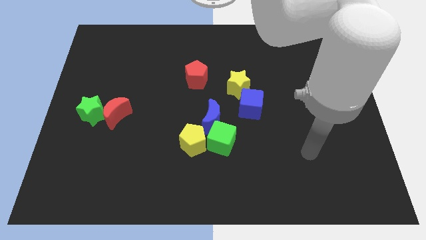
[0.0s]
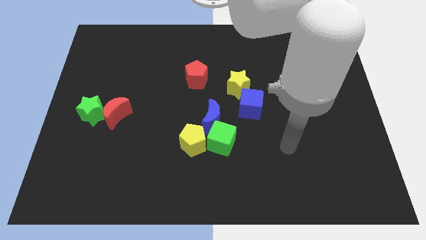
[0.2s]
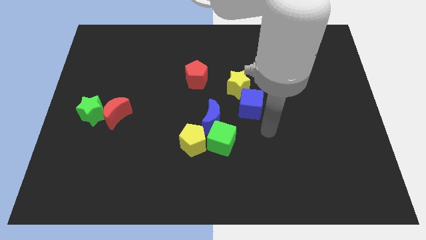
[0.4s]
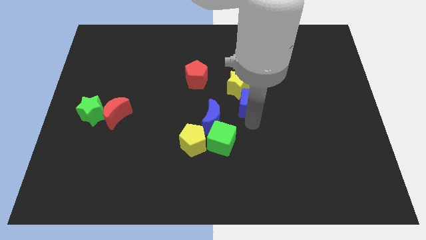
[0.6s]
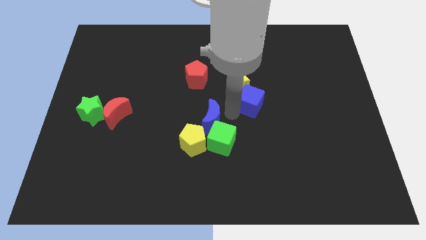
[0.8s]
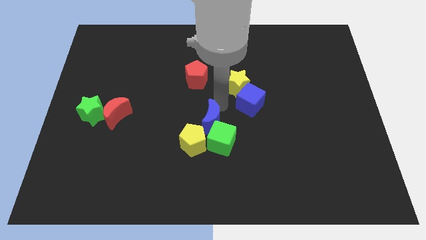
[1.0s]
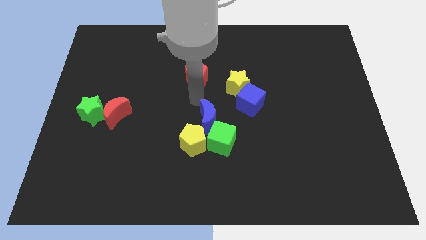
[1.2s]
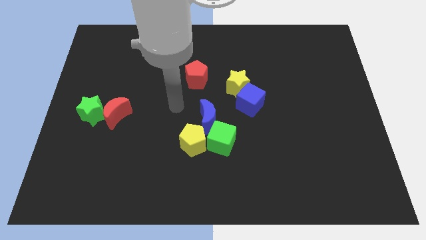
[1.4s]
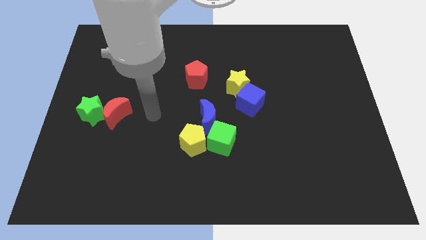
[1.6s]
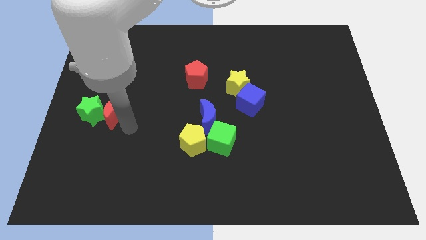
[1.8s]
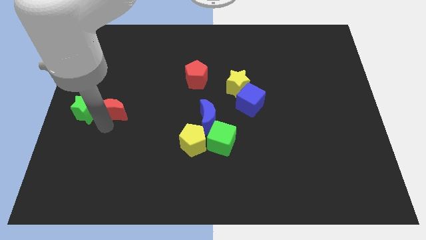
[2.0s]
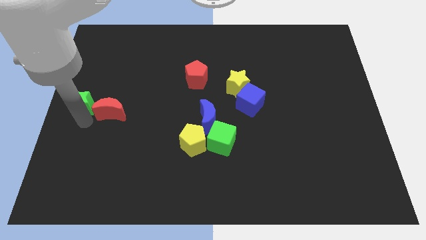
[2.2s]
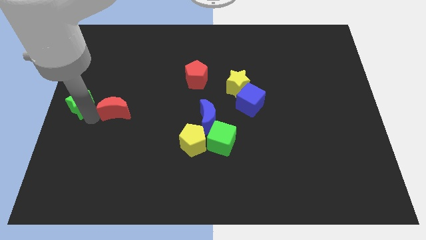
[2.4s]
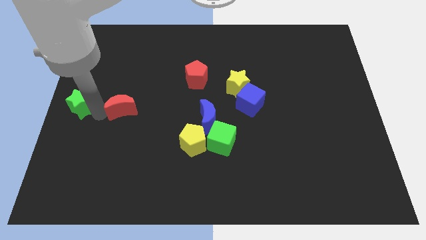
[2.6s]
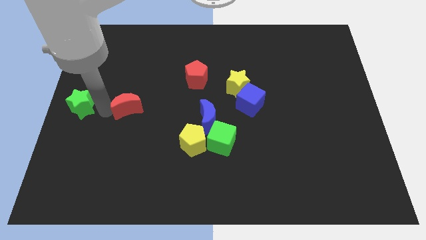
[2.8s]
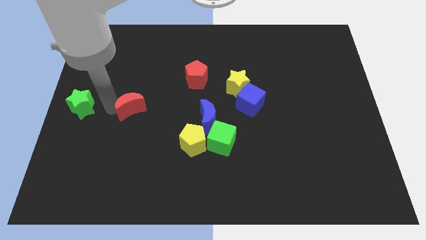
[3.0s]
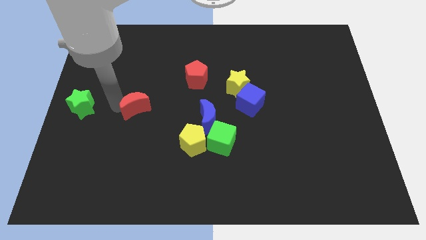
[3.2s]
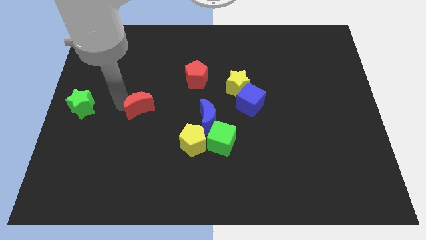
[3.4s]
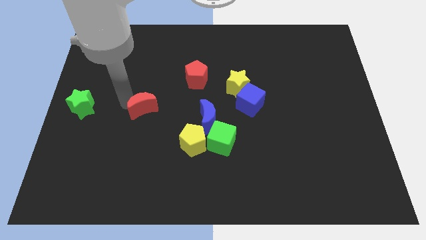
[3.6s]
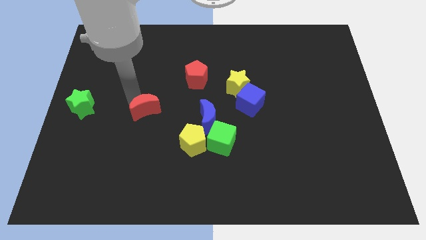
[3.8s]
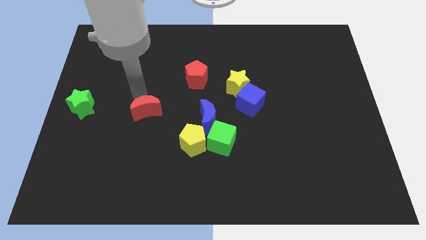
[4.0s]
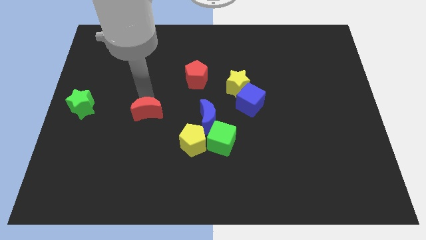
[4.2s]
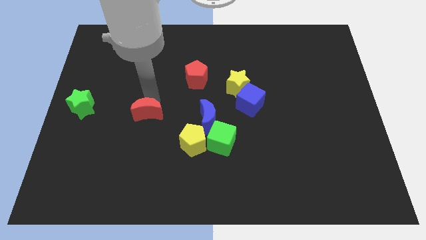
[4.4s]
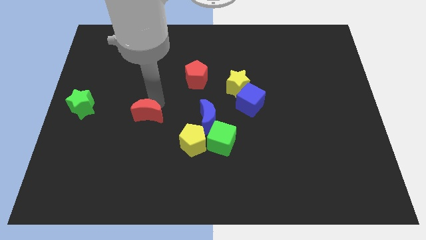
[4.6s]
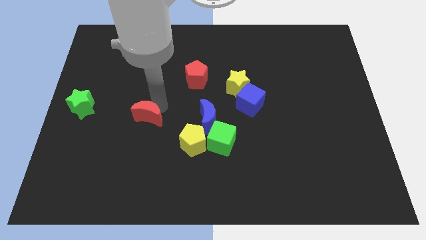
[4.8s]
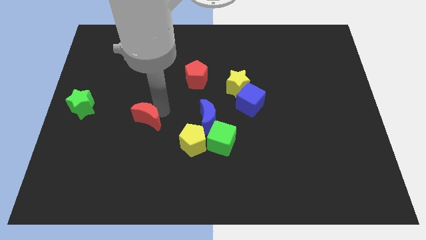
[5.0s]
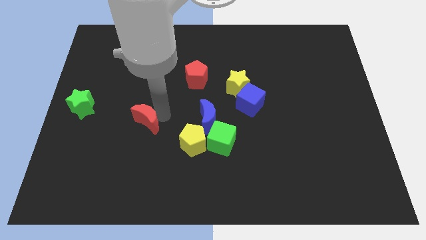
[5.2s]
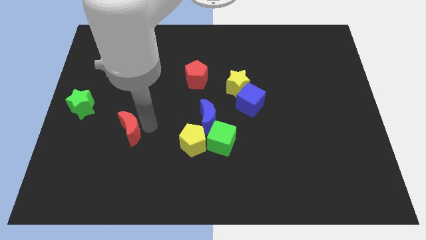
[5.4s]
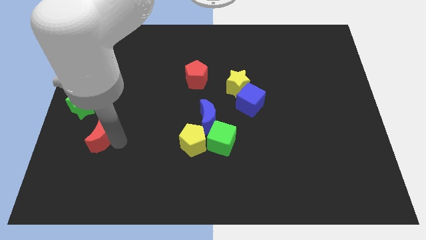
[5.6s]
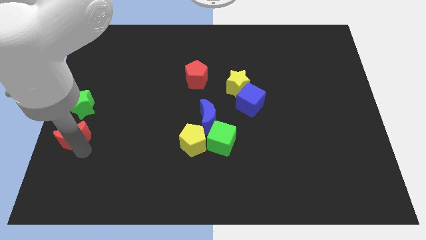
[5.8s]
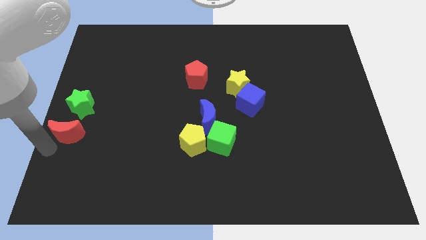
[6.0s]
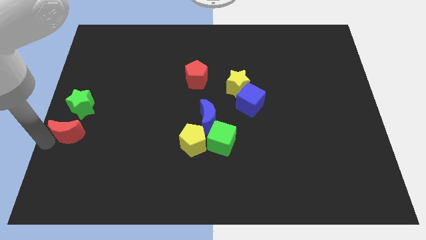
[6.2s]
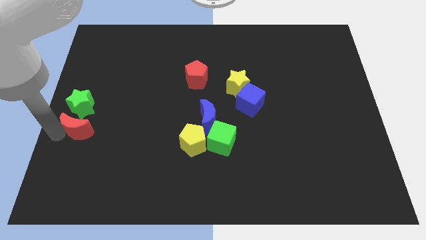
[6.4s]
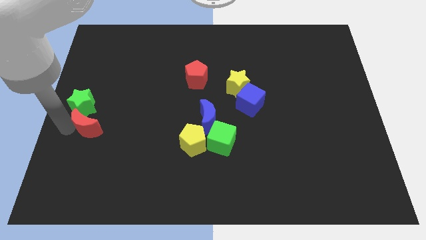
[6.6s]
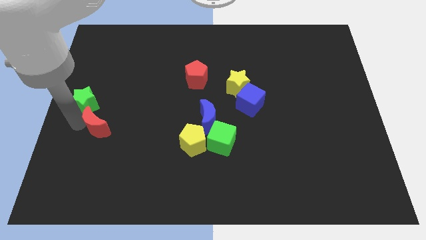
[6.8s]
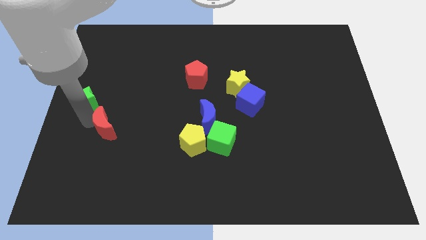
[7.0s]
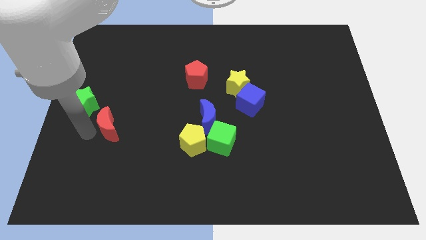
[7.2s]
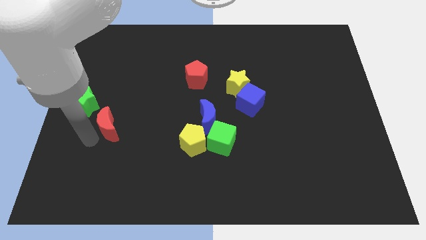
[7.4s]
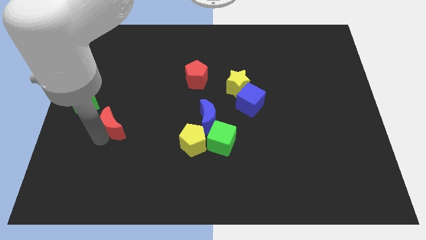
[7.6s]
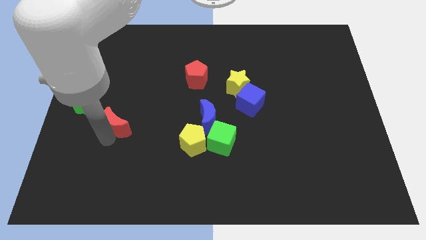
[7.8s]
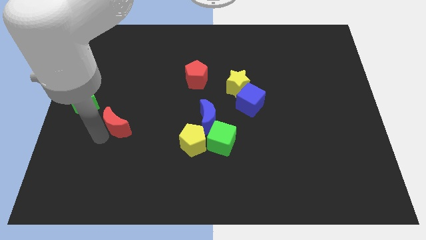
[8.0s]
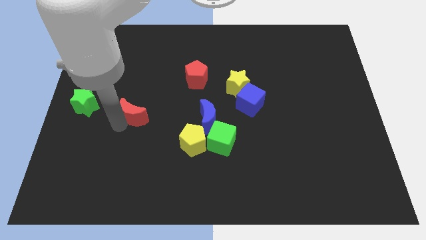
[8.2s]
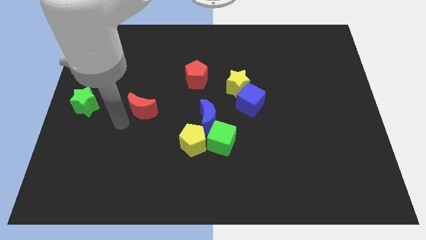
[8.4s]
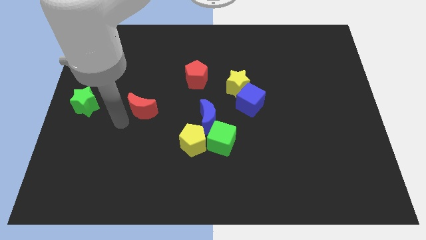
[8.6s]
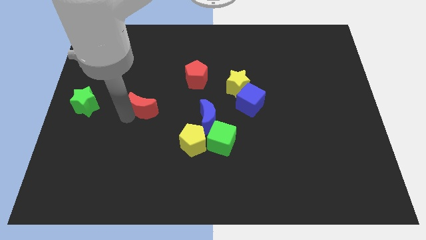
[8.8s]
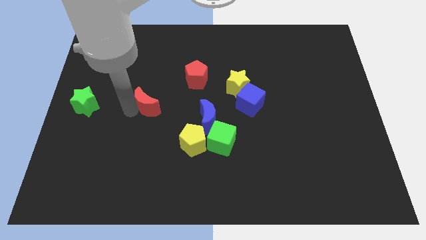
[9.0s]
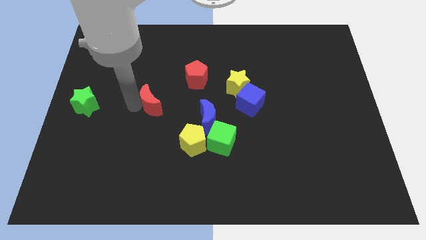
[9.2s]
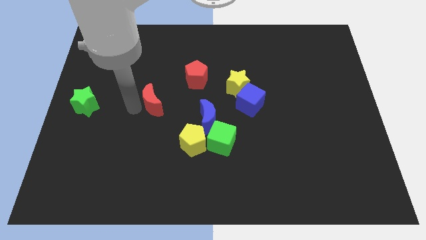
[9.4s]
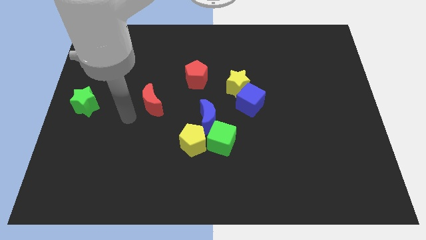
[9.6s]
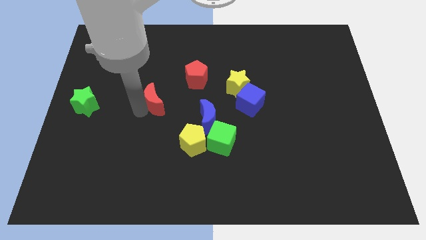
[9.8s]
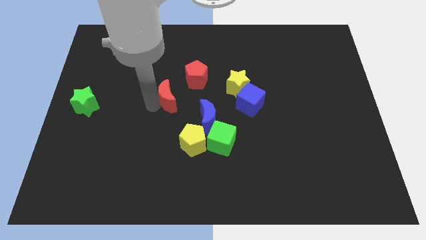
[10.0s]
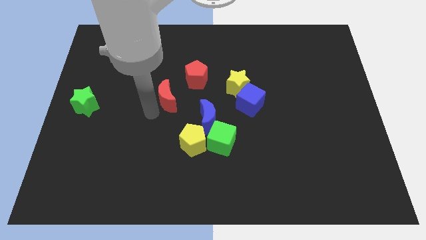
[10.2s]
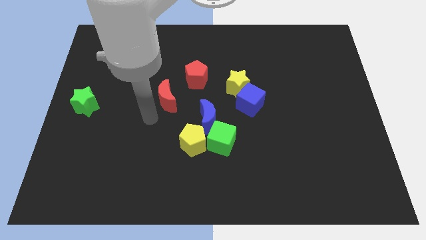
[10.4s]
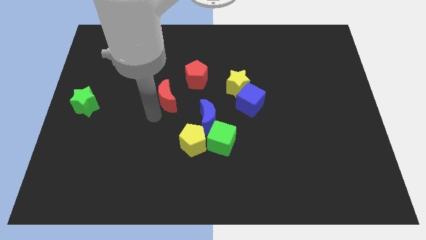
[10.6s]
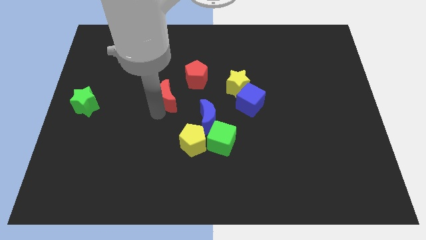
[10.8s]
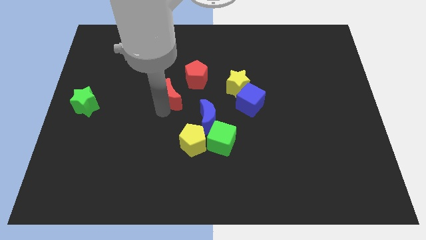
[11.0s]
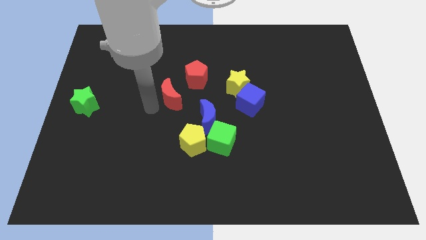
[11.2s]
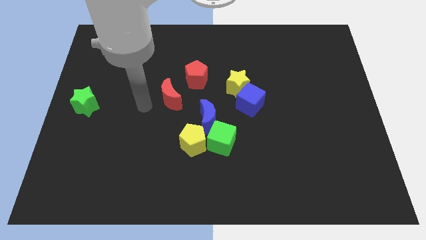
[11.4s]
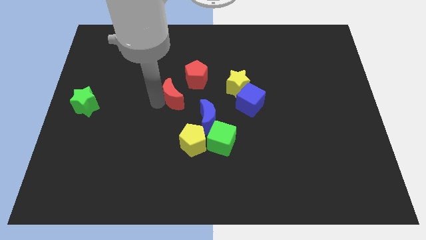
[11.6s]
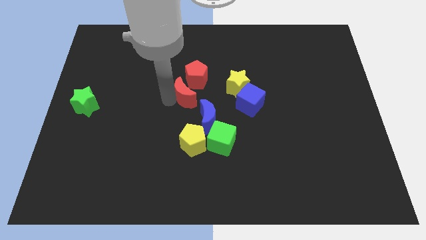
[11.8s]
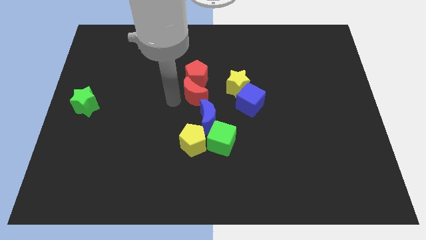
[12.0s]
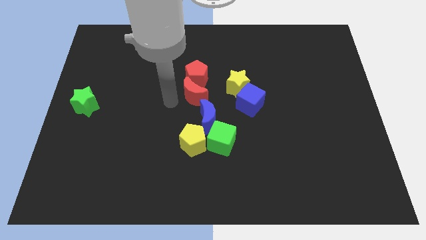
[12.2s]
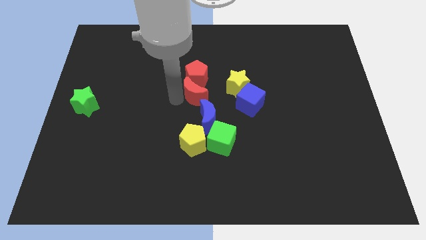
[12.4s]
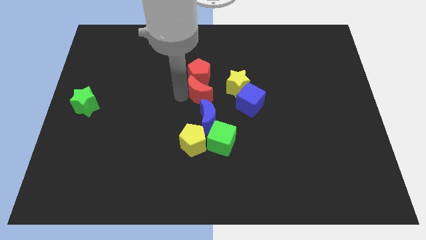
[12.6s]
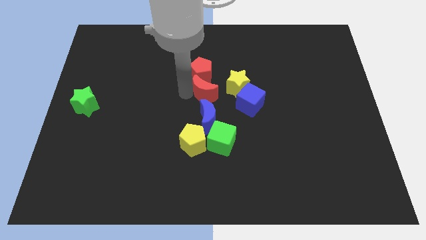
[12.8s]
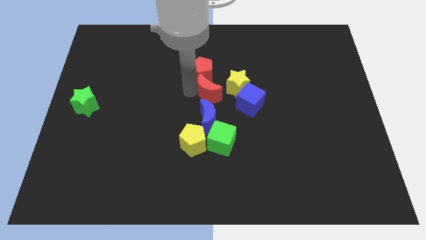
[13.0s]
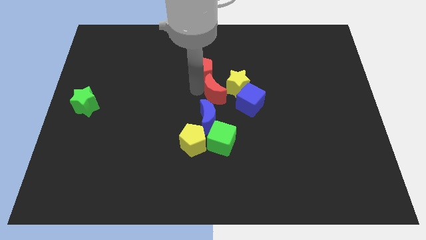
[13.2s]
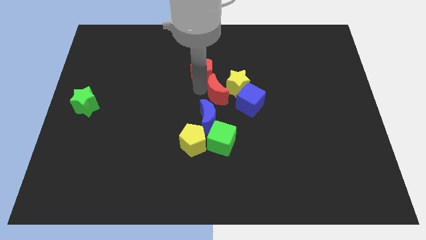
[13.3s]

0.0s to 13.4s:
move the red moon towards the yellow star

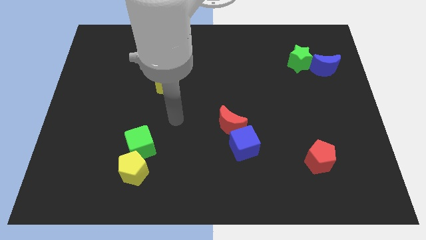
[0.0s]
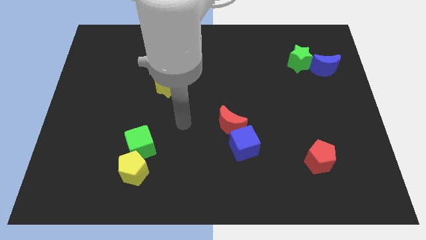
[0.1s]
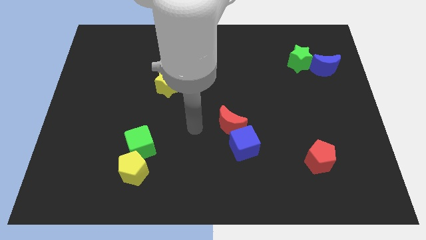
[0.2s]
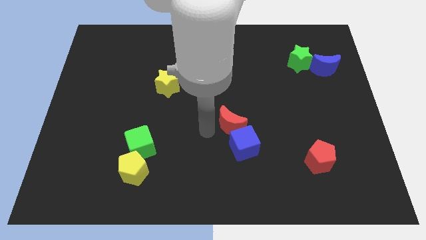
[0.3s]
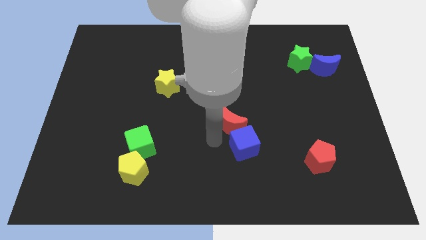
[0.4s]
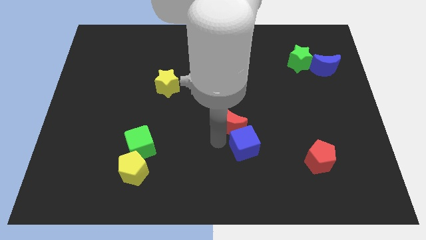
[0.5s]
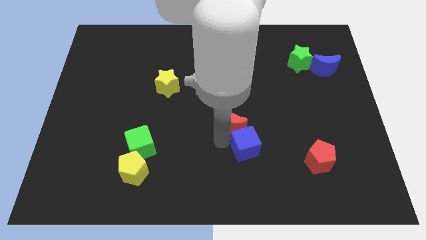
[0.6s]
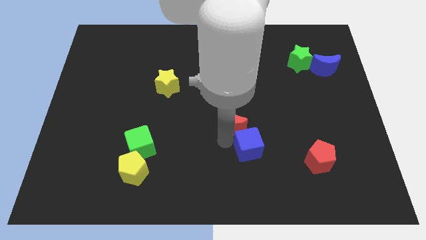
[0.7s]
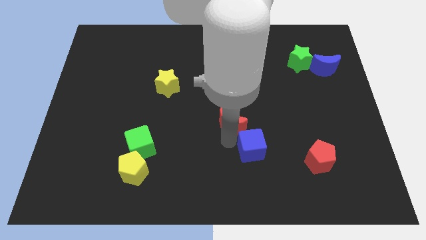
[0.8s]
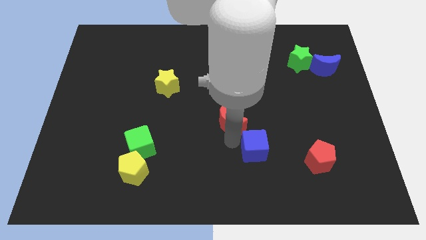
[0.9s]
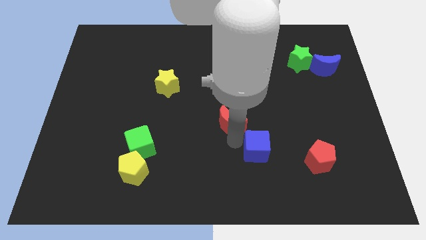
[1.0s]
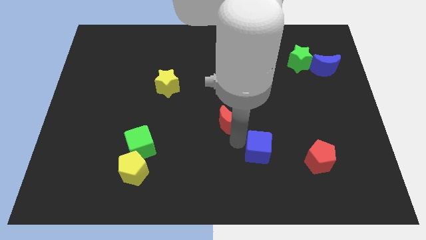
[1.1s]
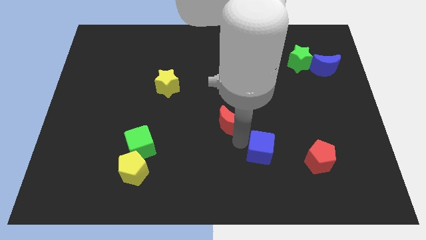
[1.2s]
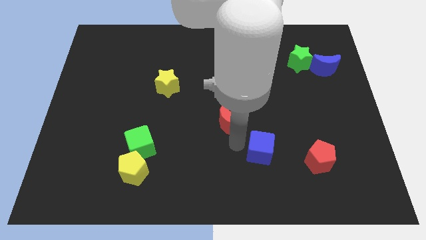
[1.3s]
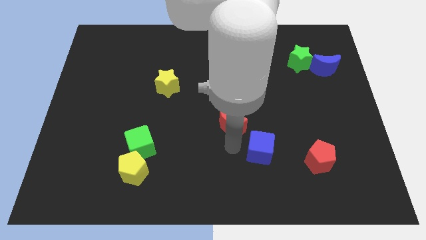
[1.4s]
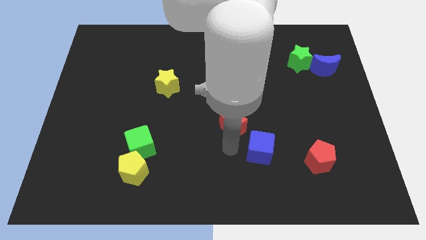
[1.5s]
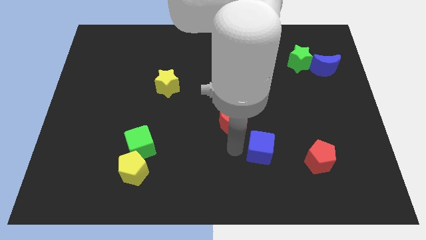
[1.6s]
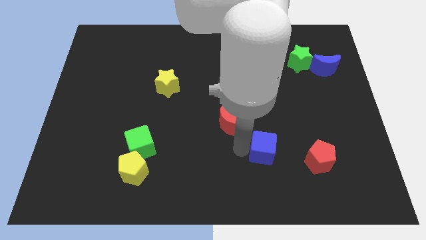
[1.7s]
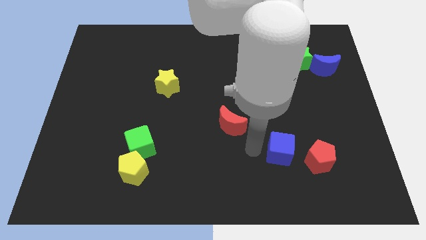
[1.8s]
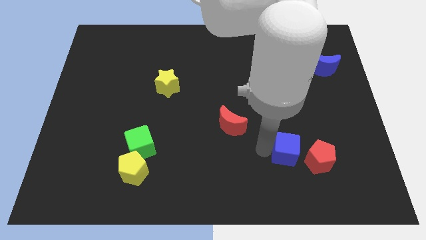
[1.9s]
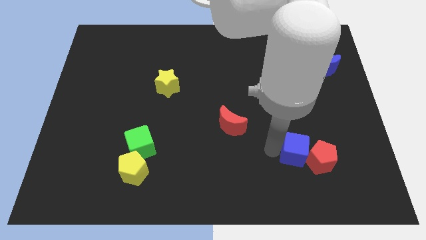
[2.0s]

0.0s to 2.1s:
move the blue cube next to the red pentagon
